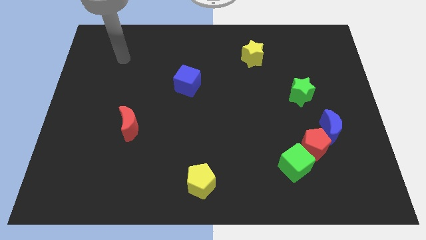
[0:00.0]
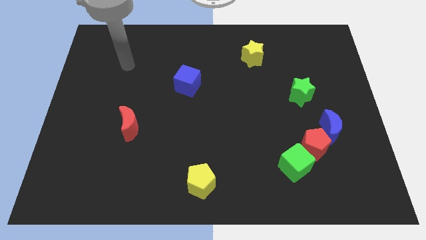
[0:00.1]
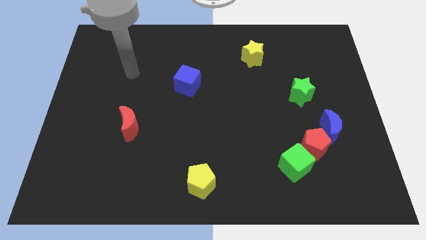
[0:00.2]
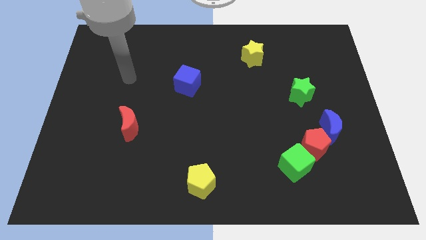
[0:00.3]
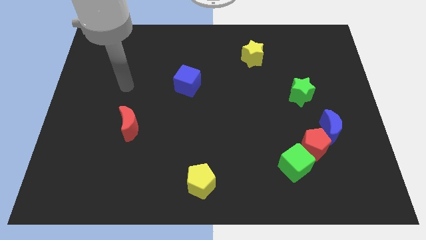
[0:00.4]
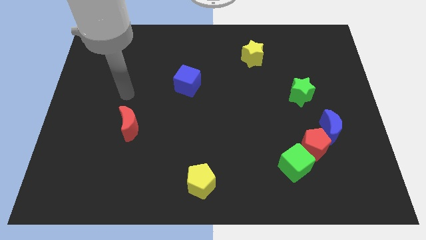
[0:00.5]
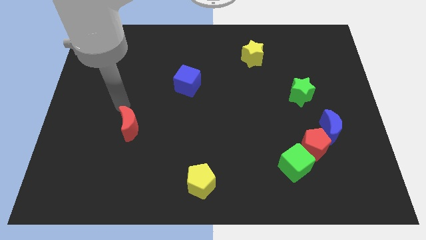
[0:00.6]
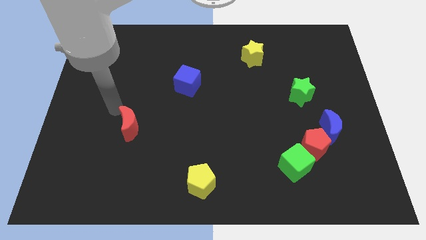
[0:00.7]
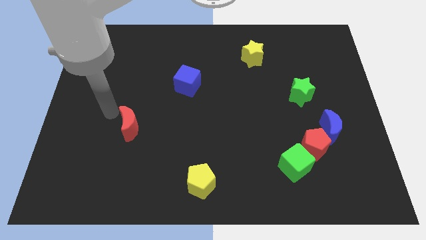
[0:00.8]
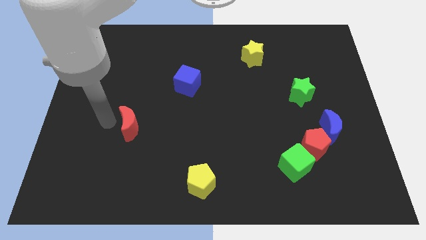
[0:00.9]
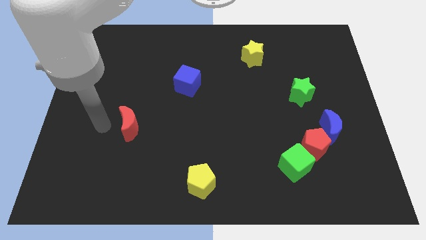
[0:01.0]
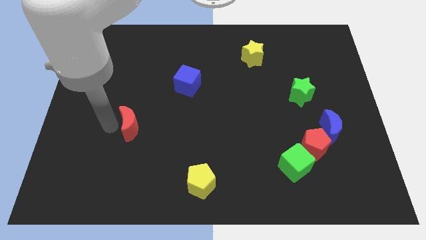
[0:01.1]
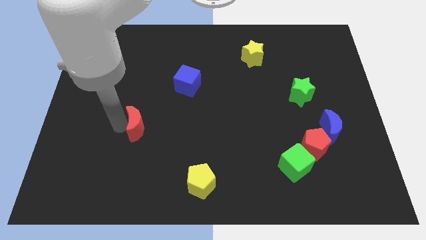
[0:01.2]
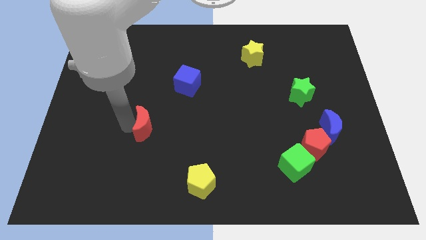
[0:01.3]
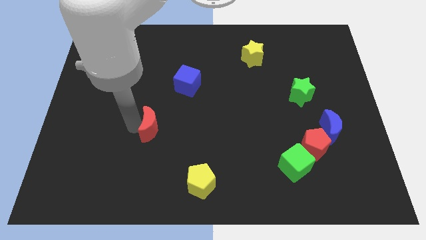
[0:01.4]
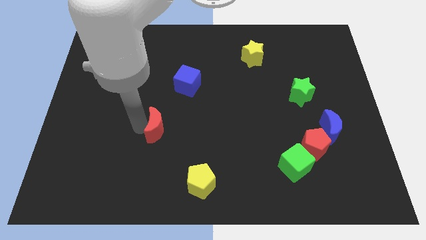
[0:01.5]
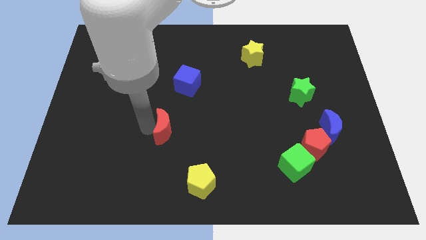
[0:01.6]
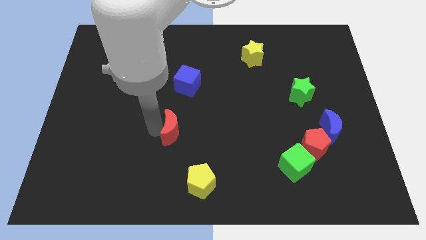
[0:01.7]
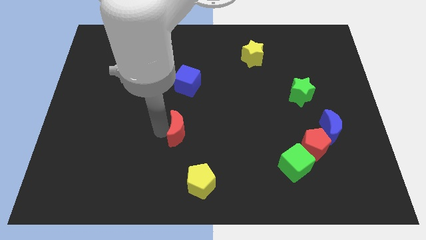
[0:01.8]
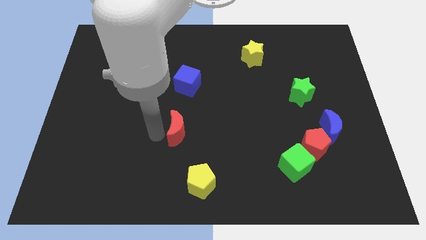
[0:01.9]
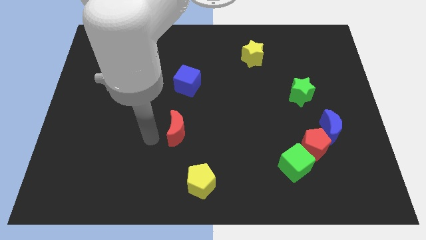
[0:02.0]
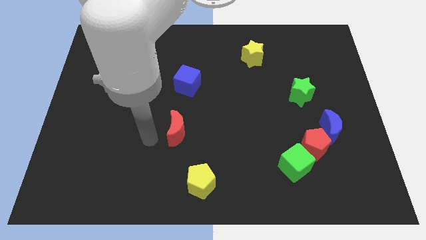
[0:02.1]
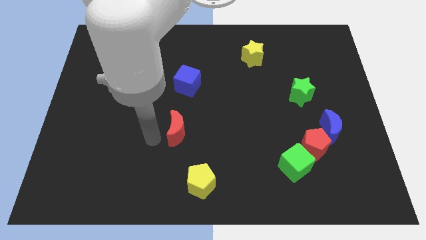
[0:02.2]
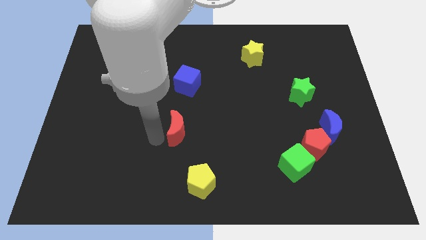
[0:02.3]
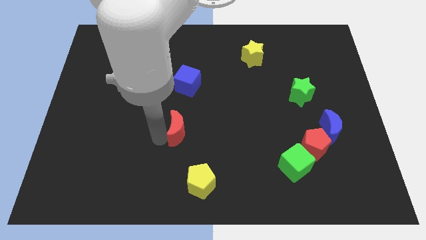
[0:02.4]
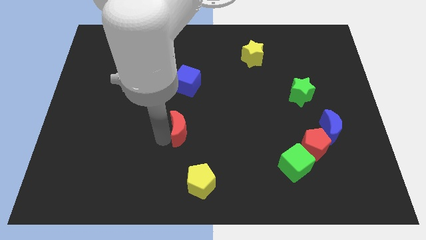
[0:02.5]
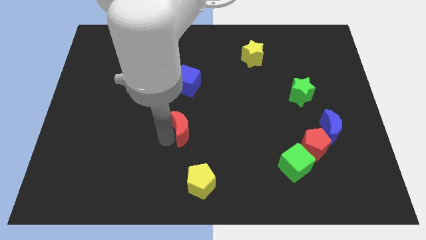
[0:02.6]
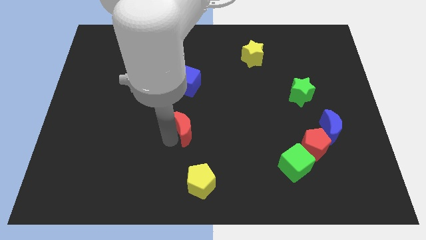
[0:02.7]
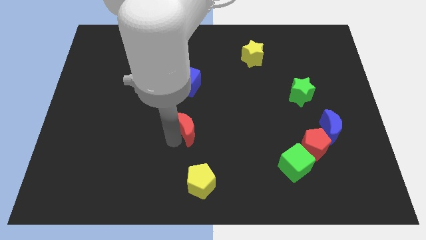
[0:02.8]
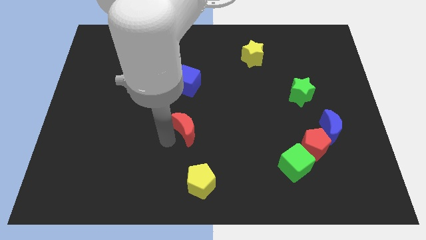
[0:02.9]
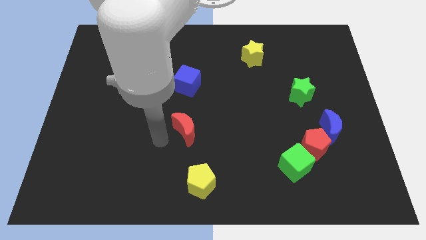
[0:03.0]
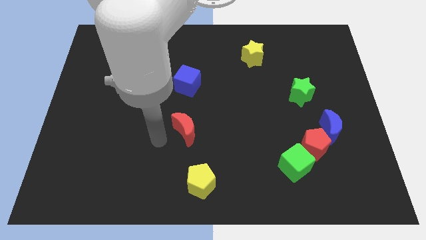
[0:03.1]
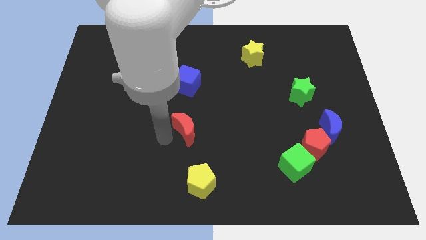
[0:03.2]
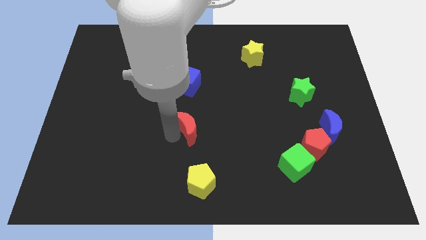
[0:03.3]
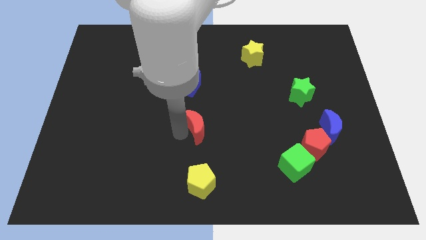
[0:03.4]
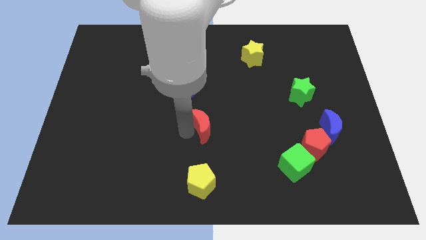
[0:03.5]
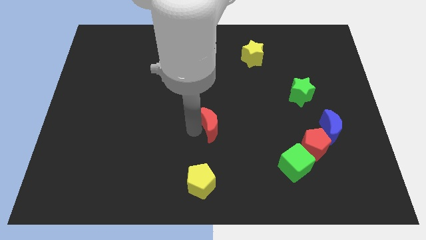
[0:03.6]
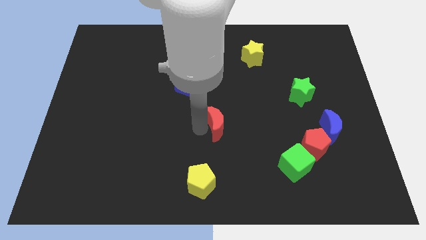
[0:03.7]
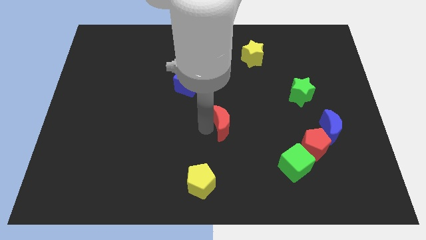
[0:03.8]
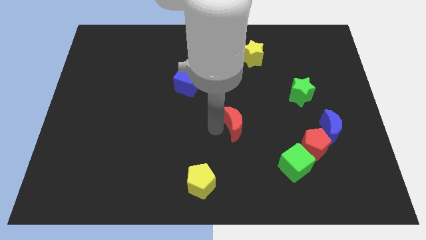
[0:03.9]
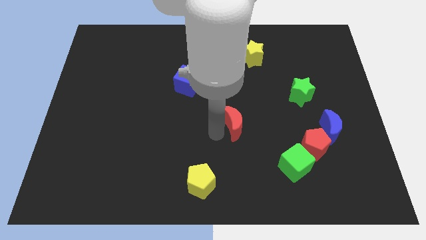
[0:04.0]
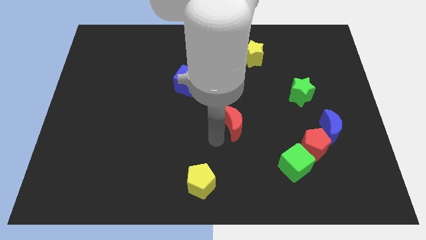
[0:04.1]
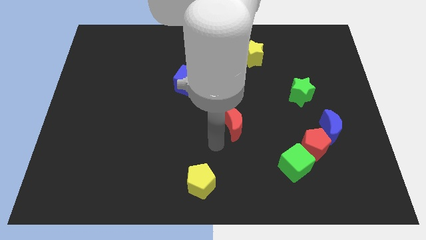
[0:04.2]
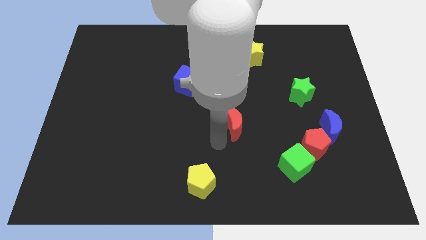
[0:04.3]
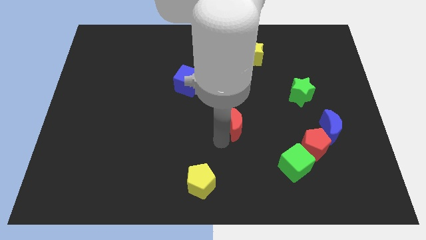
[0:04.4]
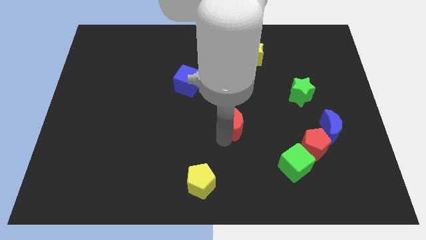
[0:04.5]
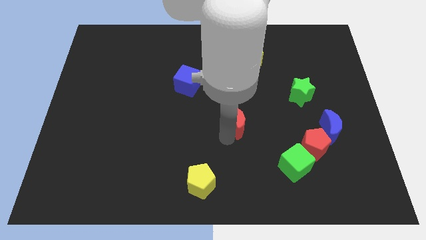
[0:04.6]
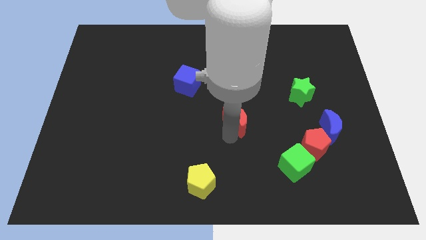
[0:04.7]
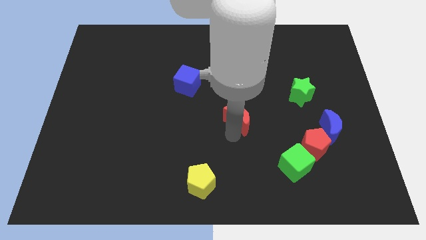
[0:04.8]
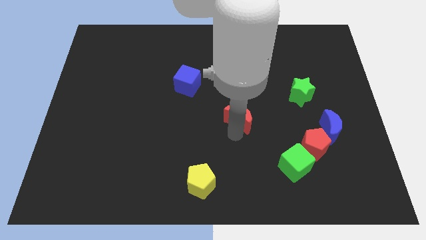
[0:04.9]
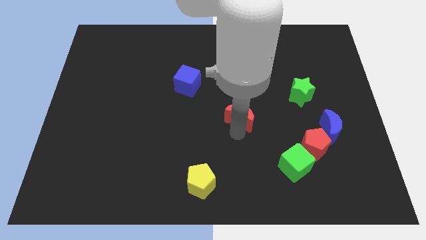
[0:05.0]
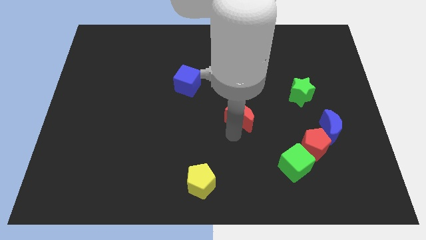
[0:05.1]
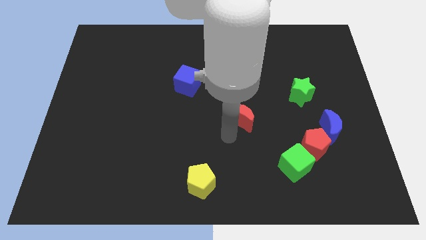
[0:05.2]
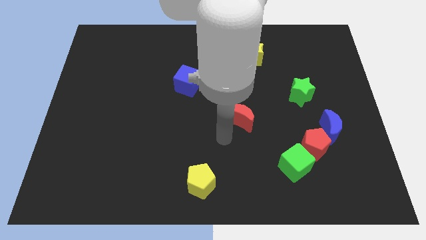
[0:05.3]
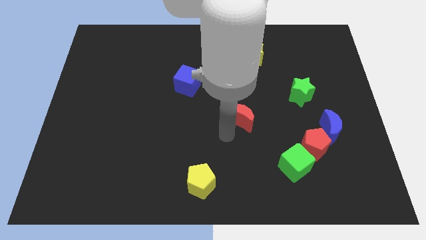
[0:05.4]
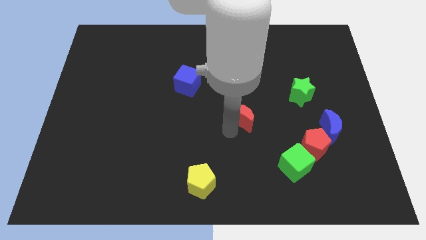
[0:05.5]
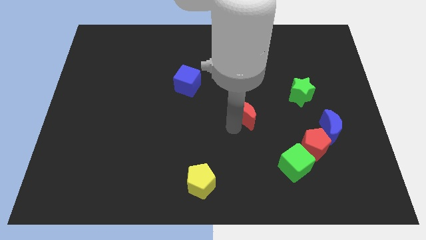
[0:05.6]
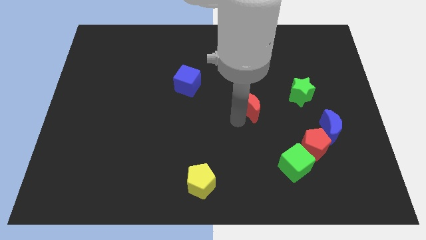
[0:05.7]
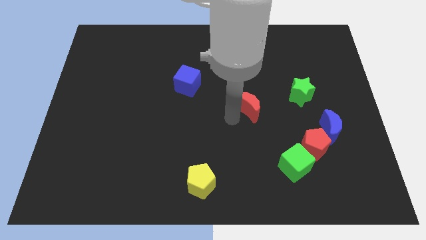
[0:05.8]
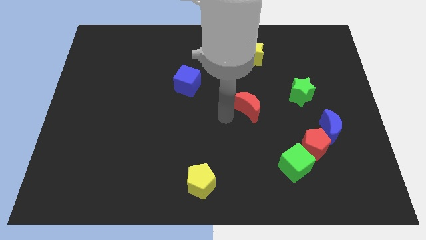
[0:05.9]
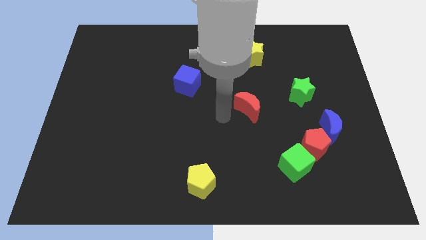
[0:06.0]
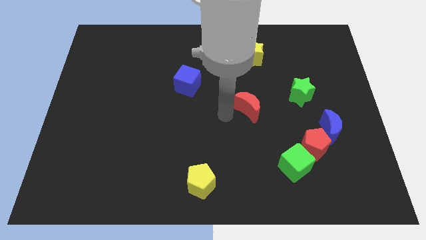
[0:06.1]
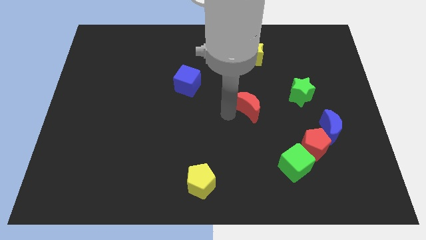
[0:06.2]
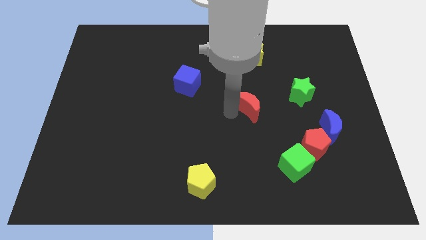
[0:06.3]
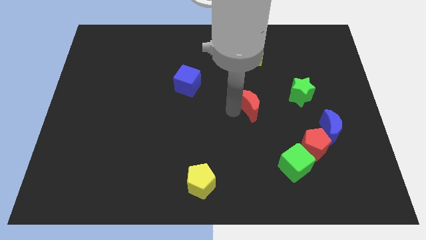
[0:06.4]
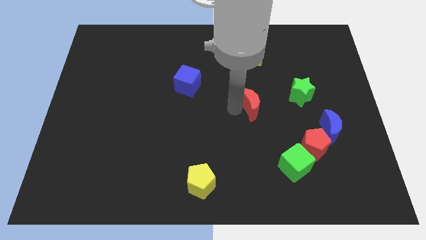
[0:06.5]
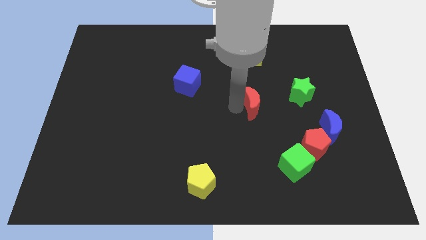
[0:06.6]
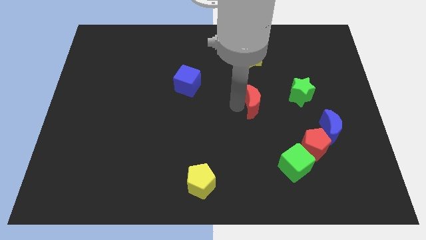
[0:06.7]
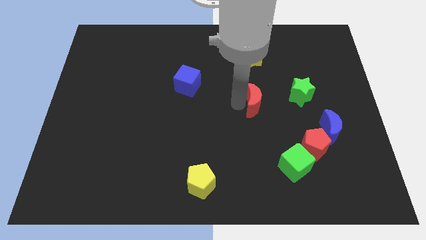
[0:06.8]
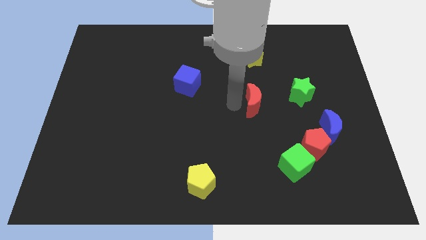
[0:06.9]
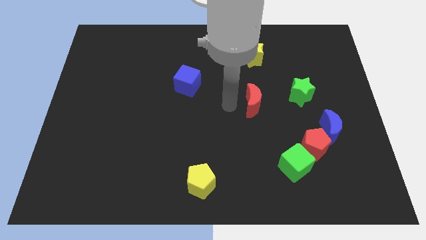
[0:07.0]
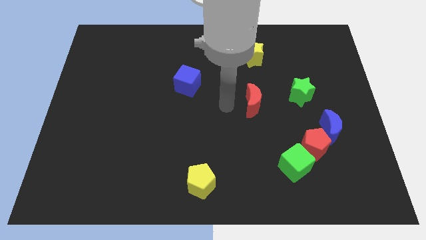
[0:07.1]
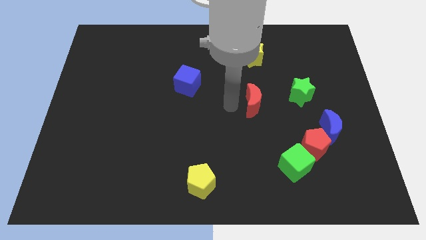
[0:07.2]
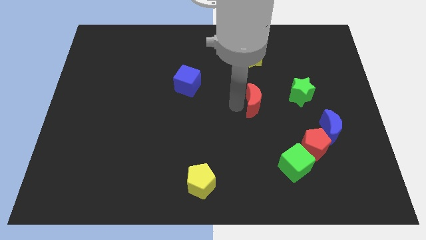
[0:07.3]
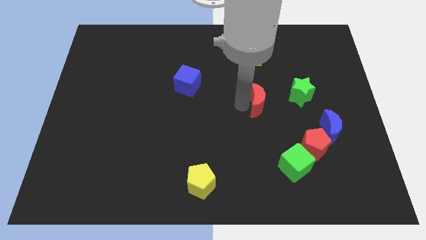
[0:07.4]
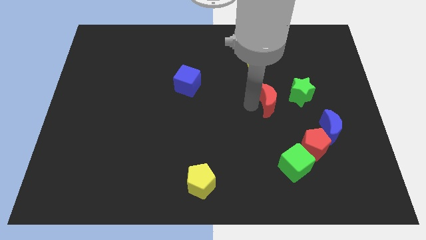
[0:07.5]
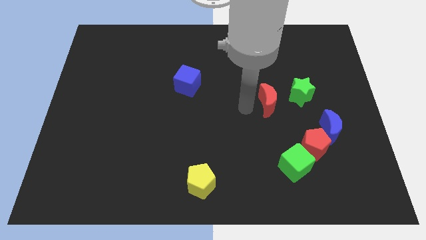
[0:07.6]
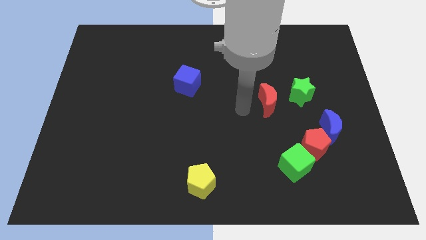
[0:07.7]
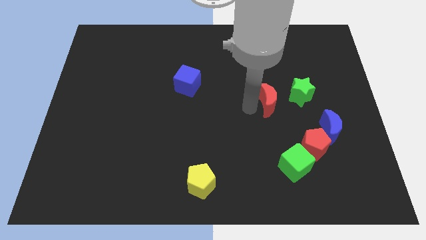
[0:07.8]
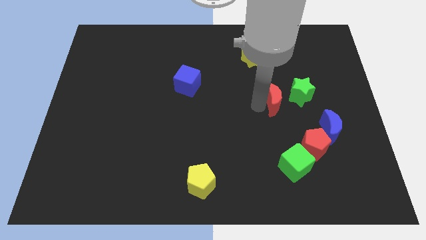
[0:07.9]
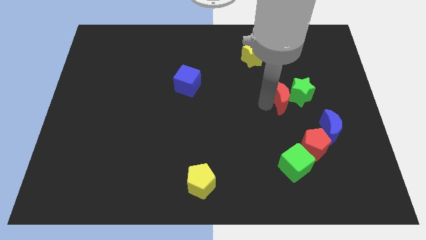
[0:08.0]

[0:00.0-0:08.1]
move the red moon to the green star
